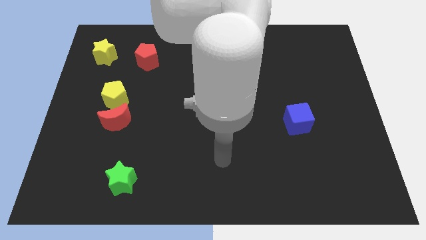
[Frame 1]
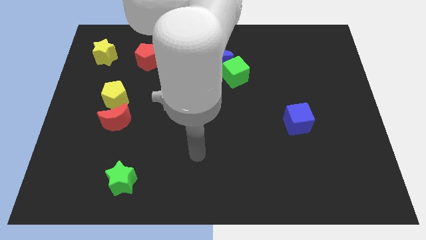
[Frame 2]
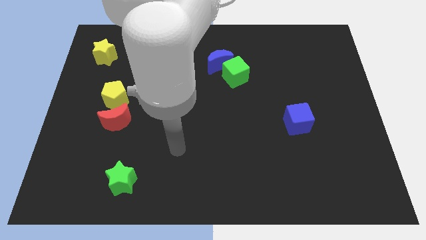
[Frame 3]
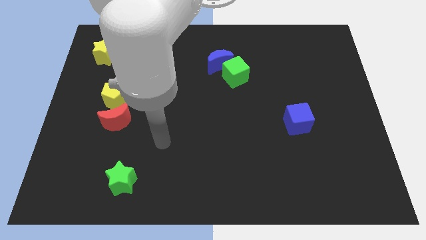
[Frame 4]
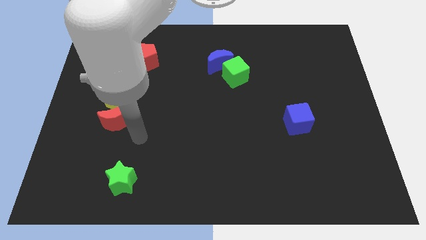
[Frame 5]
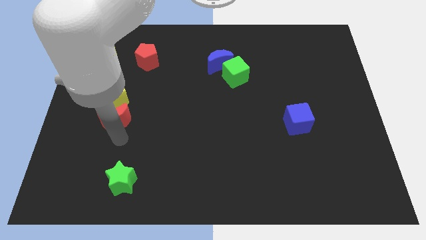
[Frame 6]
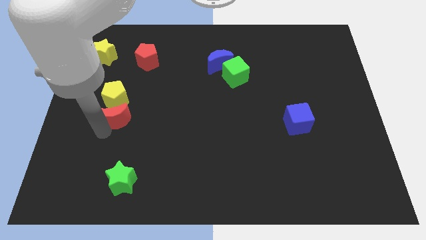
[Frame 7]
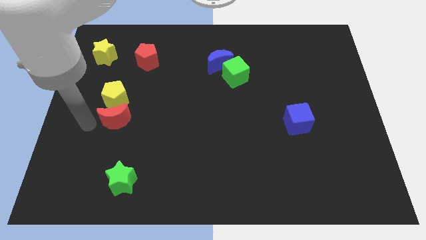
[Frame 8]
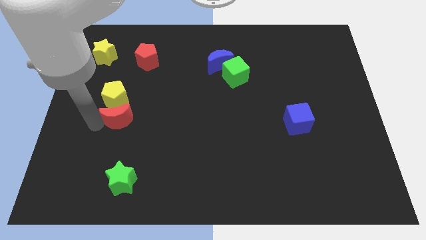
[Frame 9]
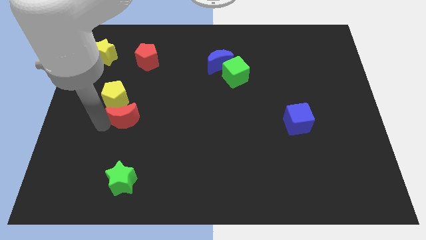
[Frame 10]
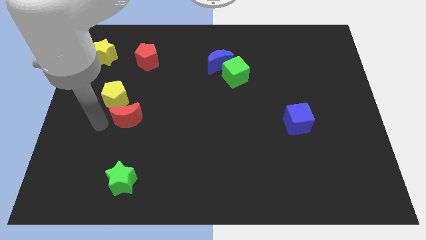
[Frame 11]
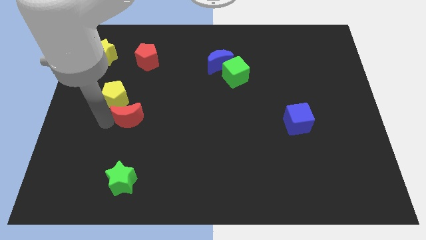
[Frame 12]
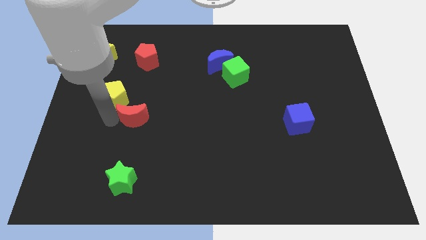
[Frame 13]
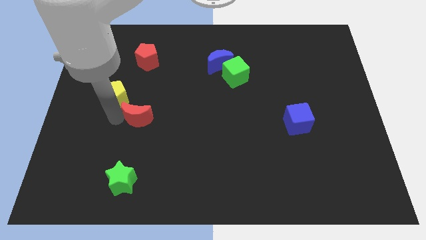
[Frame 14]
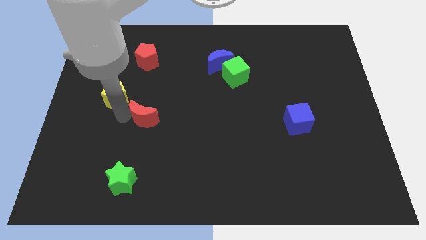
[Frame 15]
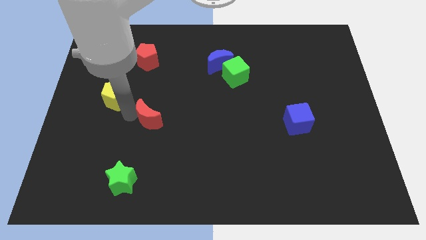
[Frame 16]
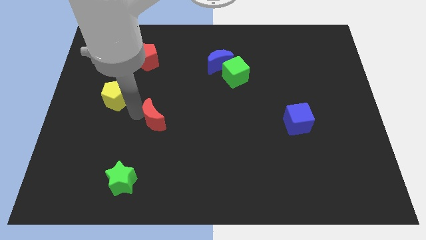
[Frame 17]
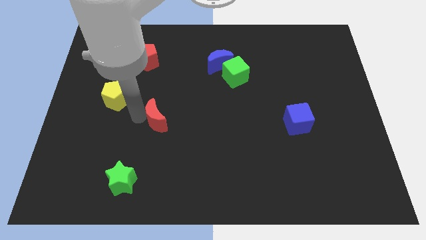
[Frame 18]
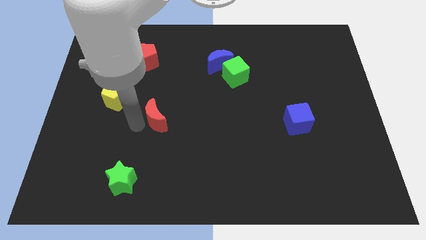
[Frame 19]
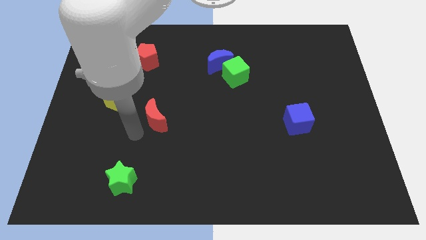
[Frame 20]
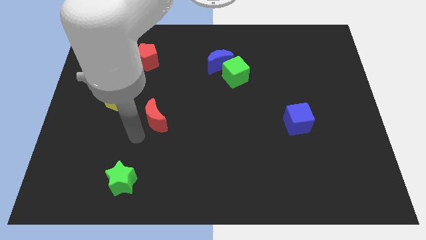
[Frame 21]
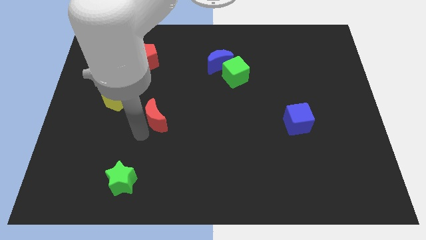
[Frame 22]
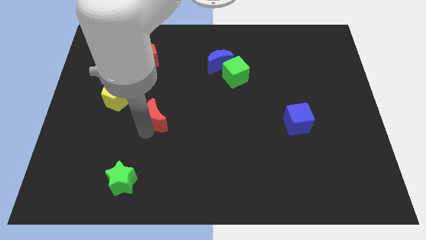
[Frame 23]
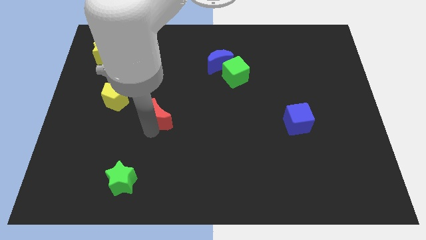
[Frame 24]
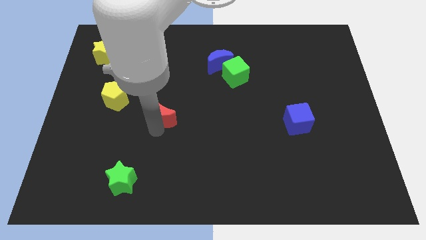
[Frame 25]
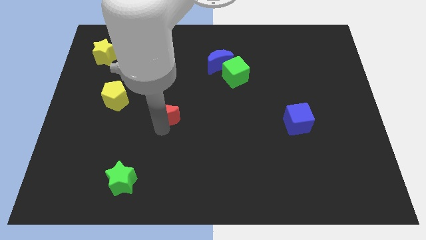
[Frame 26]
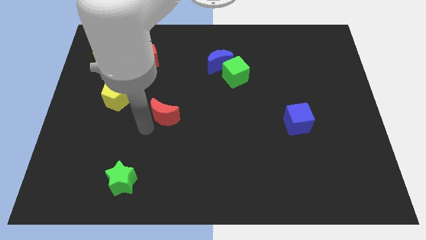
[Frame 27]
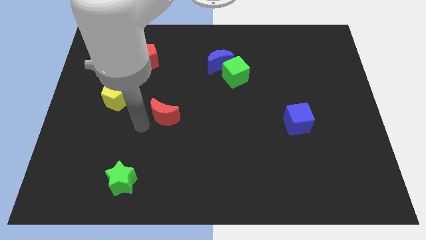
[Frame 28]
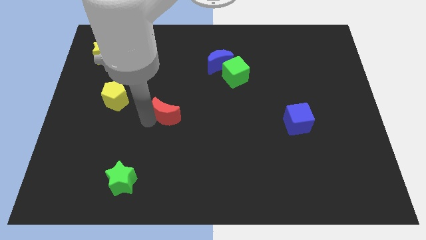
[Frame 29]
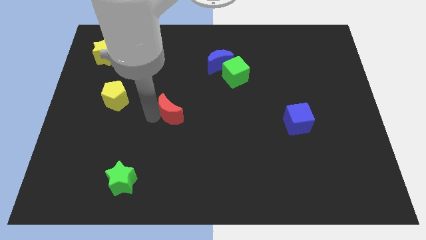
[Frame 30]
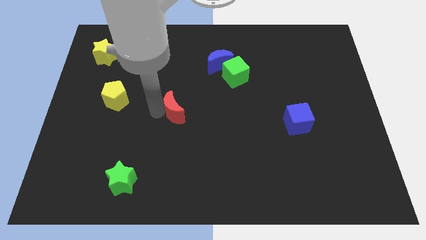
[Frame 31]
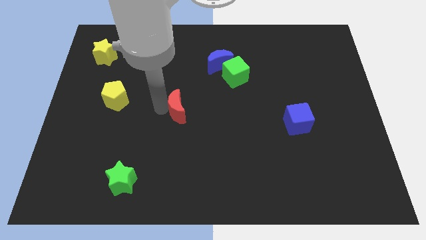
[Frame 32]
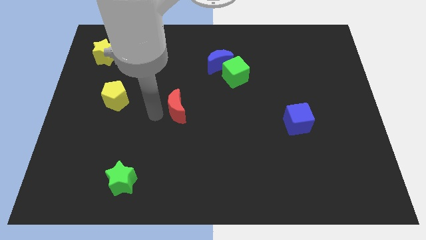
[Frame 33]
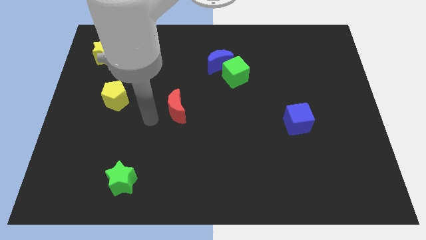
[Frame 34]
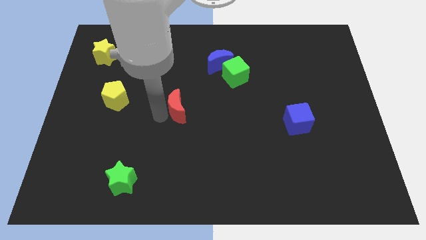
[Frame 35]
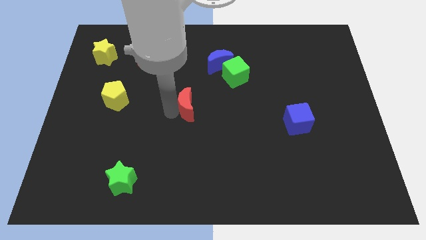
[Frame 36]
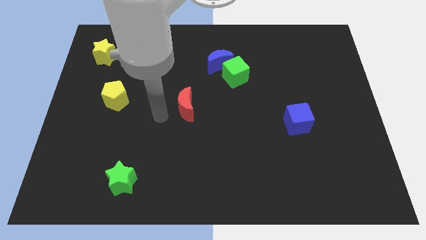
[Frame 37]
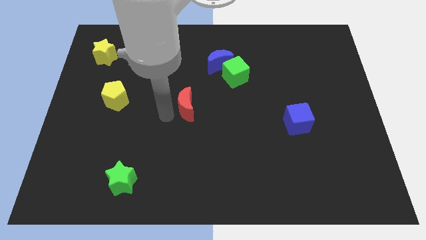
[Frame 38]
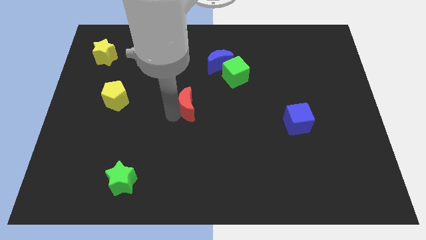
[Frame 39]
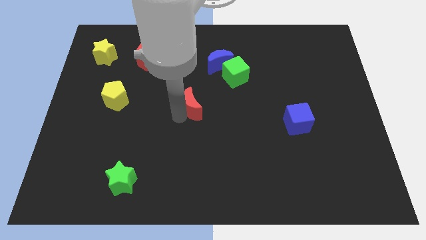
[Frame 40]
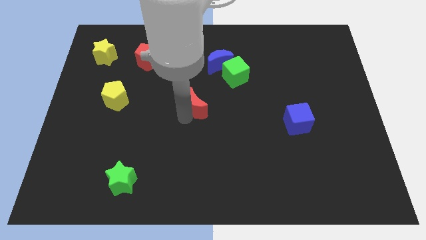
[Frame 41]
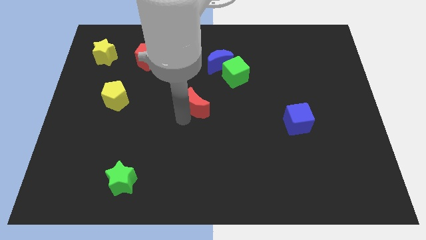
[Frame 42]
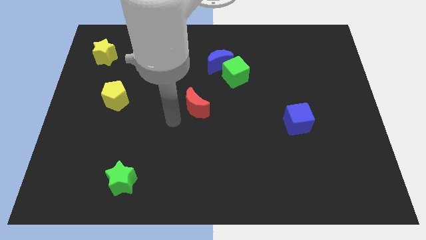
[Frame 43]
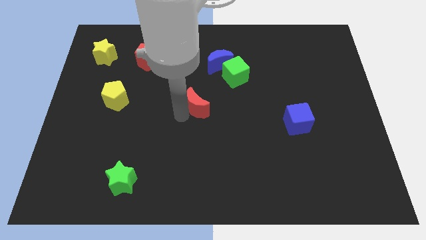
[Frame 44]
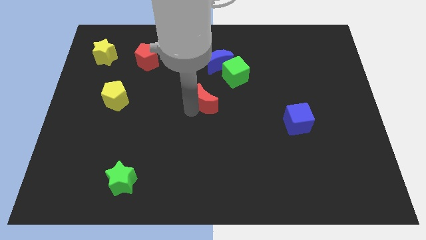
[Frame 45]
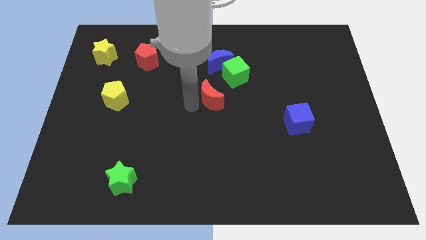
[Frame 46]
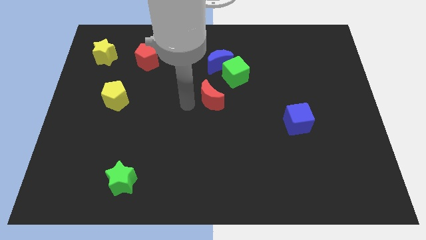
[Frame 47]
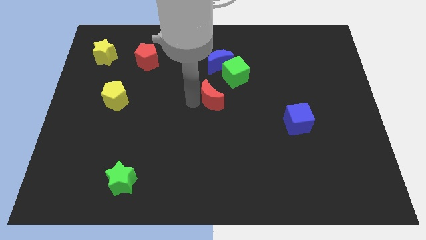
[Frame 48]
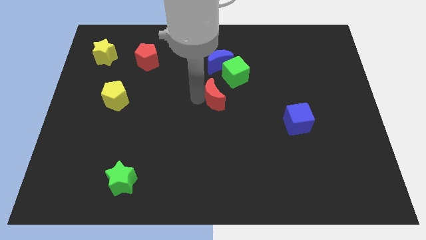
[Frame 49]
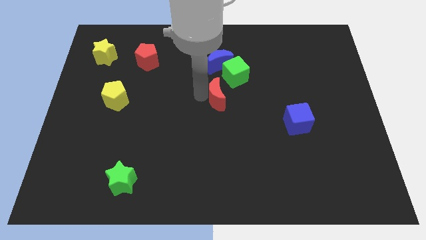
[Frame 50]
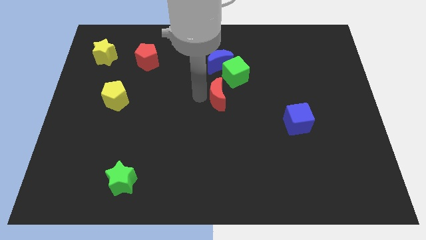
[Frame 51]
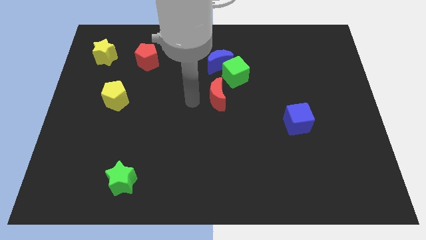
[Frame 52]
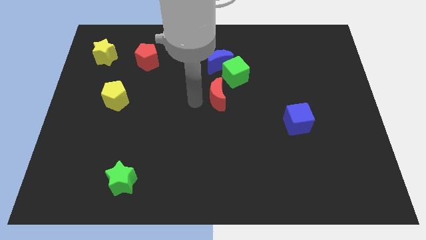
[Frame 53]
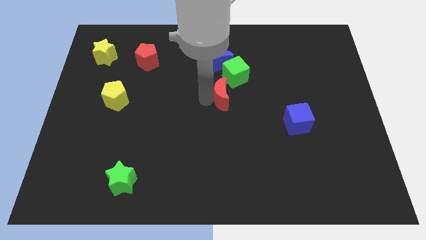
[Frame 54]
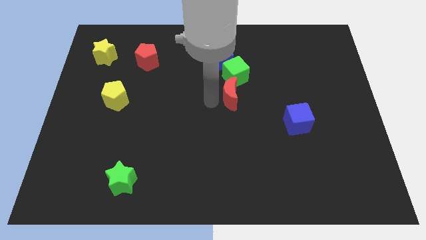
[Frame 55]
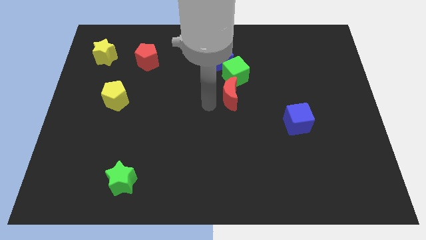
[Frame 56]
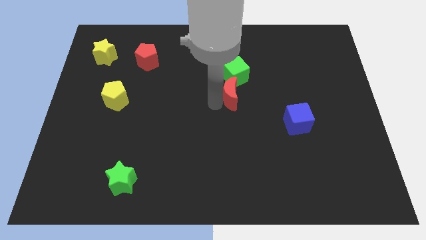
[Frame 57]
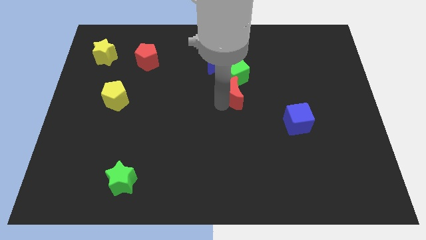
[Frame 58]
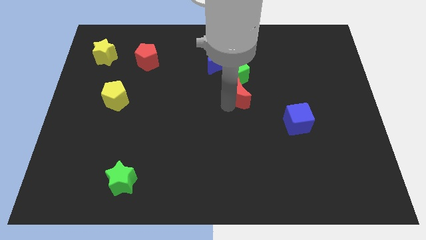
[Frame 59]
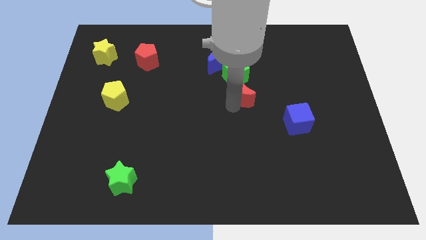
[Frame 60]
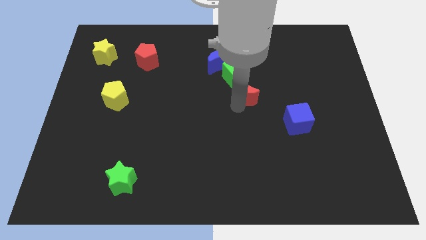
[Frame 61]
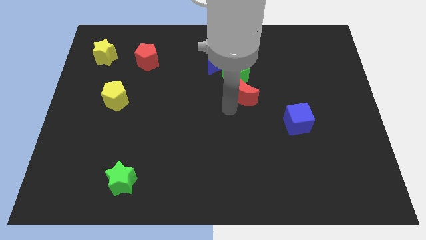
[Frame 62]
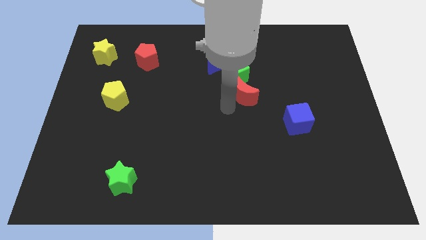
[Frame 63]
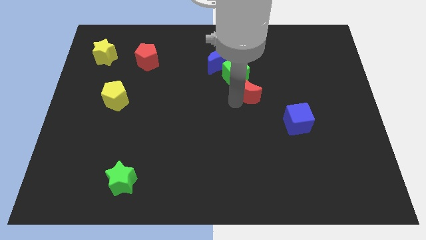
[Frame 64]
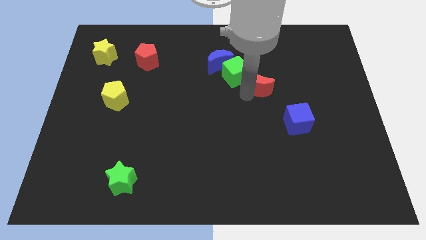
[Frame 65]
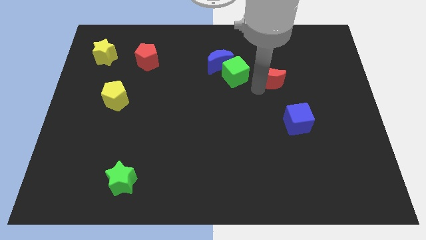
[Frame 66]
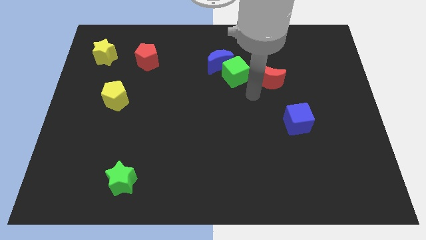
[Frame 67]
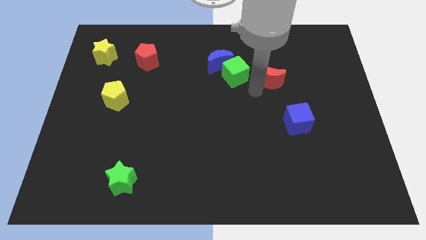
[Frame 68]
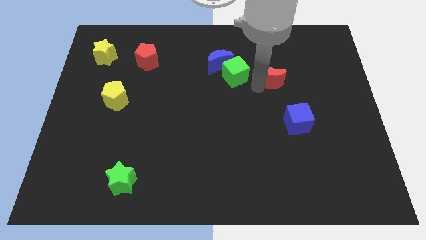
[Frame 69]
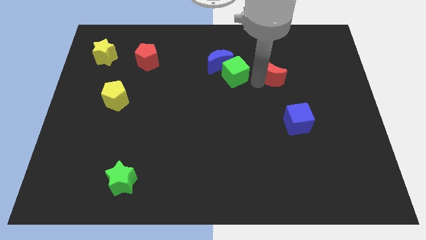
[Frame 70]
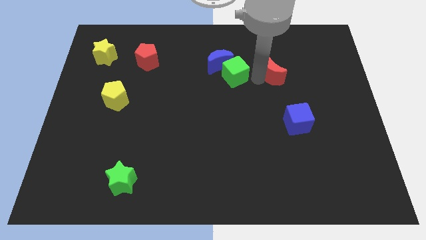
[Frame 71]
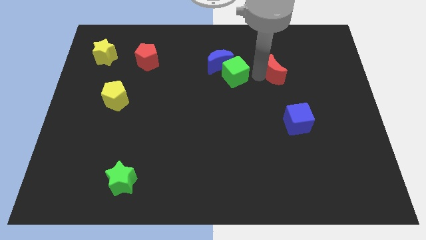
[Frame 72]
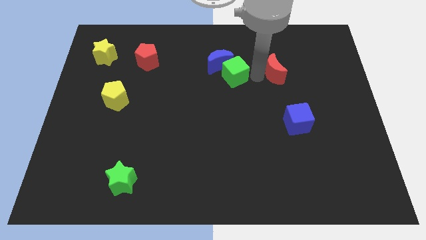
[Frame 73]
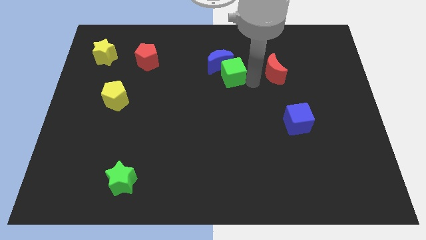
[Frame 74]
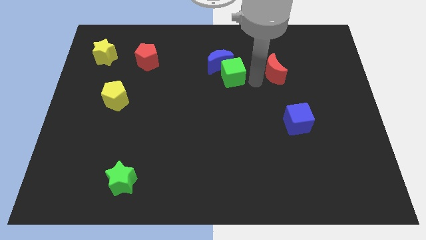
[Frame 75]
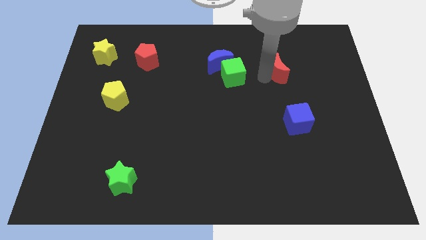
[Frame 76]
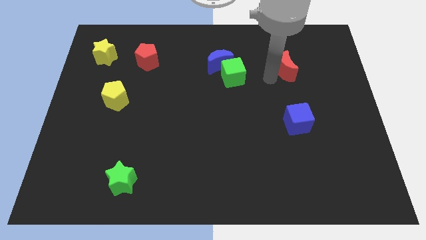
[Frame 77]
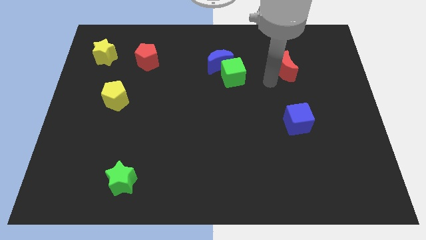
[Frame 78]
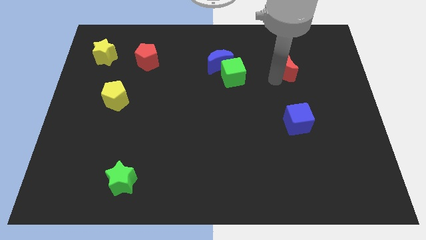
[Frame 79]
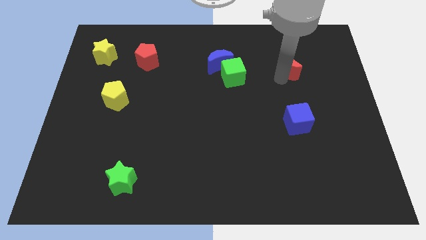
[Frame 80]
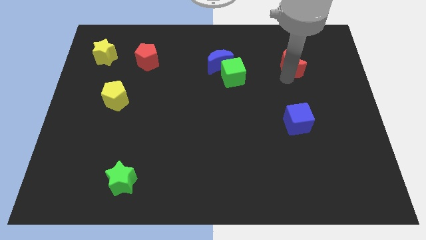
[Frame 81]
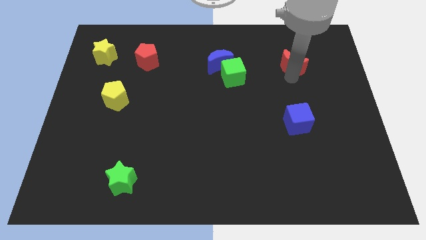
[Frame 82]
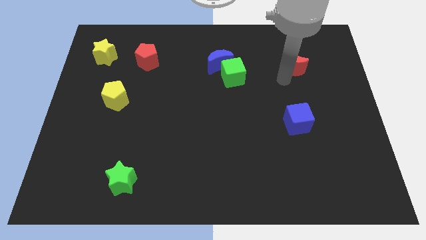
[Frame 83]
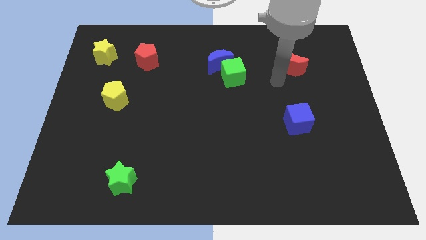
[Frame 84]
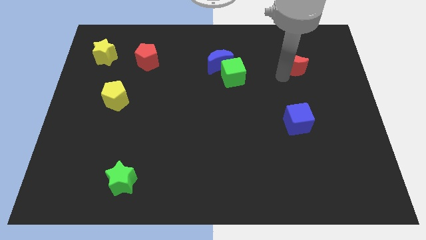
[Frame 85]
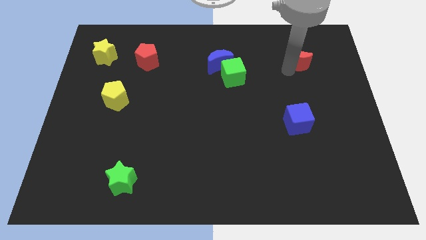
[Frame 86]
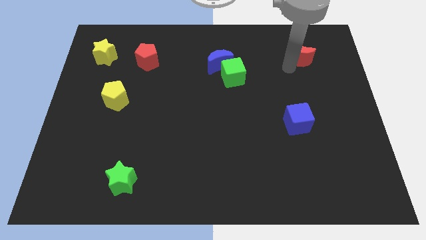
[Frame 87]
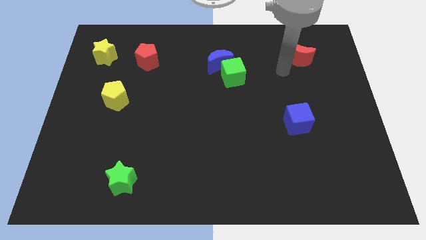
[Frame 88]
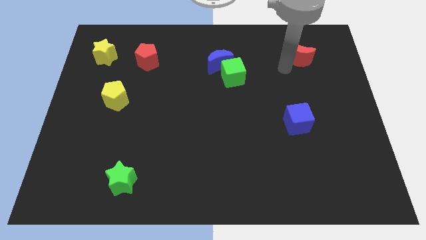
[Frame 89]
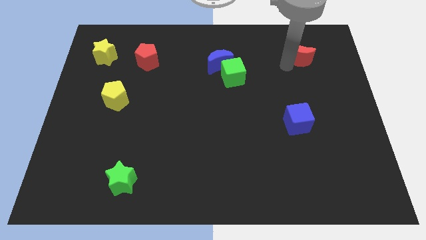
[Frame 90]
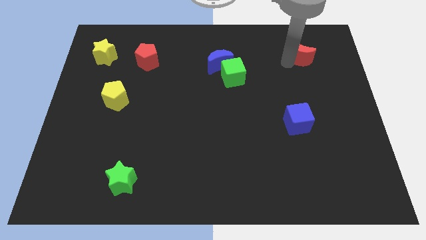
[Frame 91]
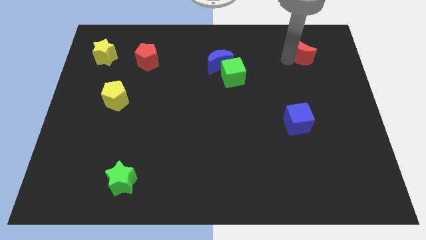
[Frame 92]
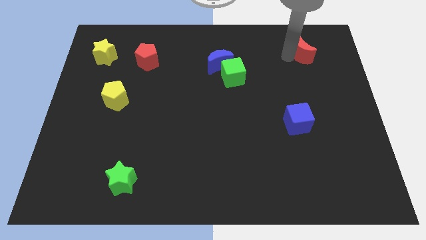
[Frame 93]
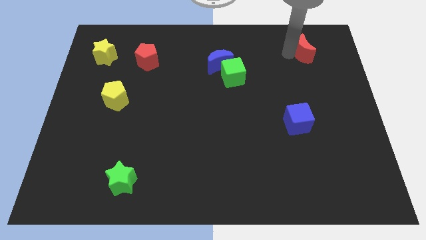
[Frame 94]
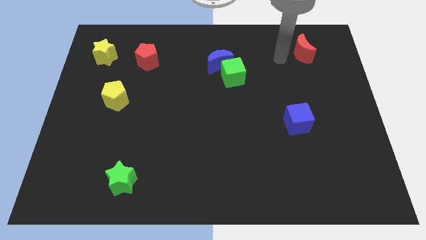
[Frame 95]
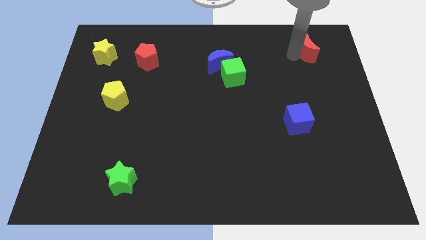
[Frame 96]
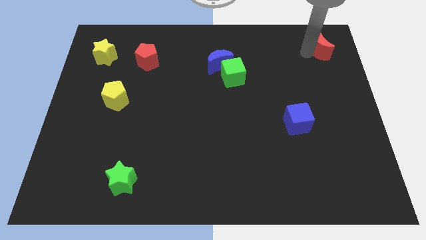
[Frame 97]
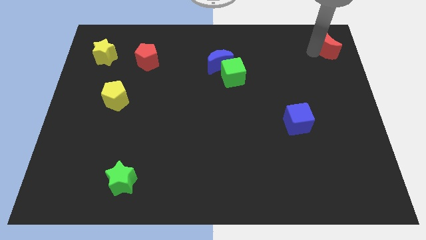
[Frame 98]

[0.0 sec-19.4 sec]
put the red moon to the top right of the board
